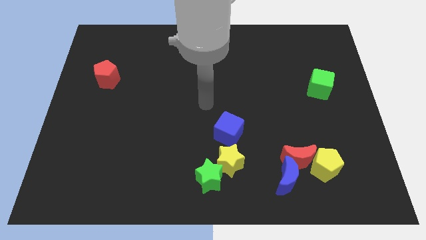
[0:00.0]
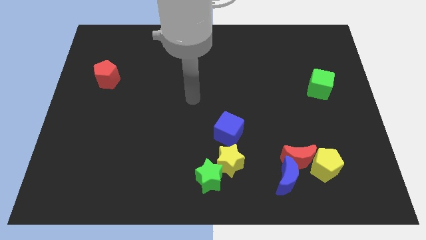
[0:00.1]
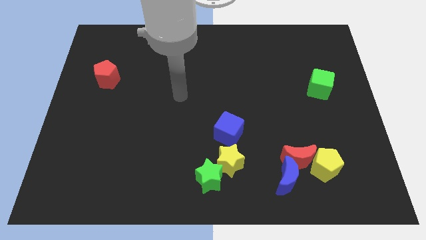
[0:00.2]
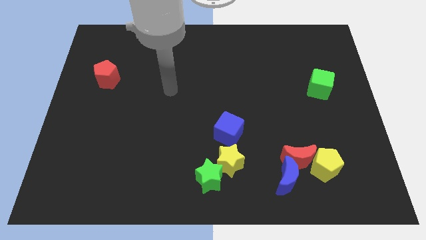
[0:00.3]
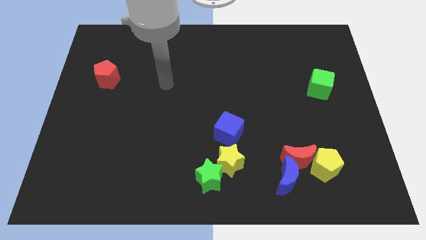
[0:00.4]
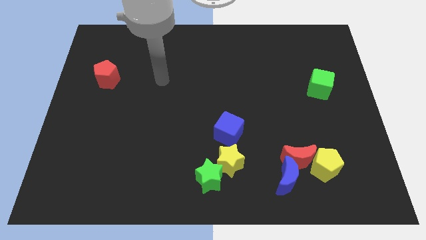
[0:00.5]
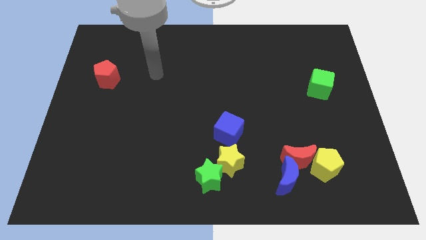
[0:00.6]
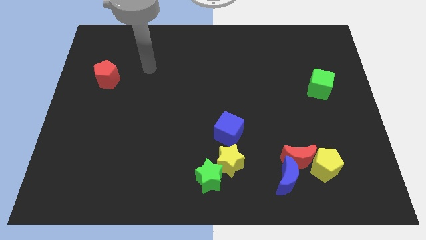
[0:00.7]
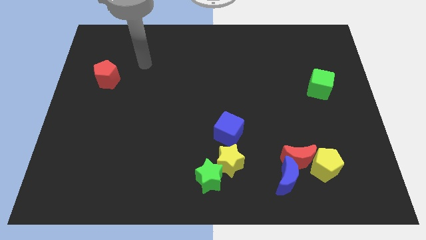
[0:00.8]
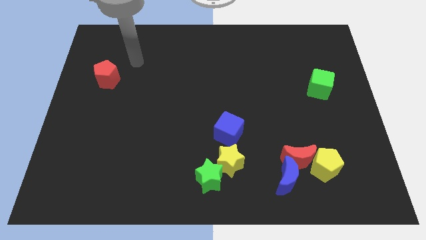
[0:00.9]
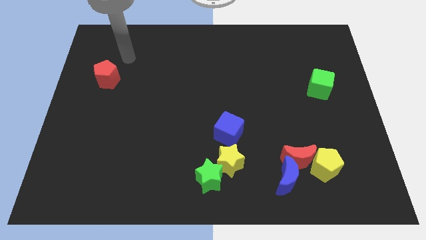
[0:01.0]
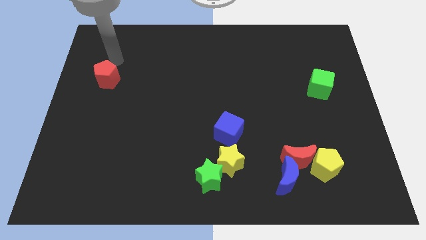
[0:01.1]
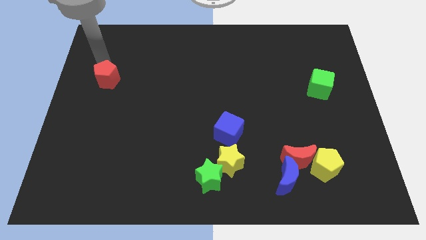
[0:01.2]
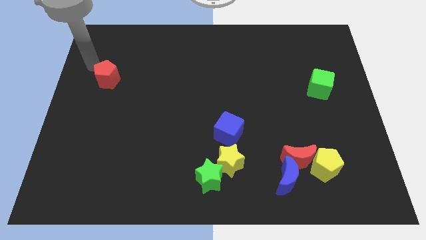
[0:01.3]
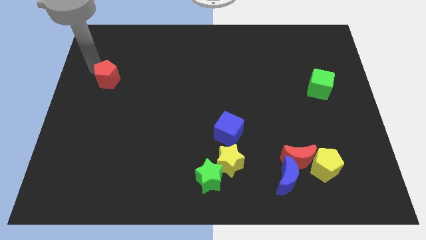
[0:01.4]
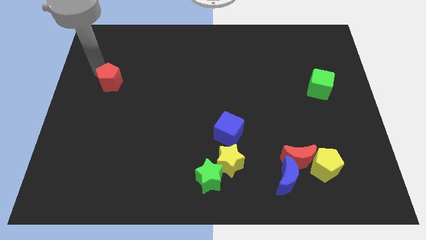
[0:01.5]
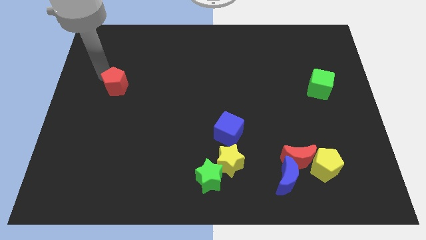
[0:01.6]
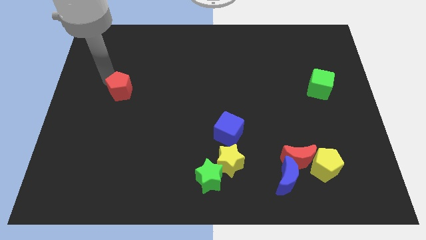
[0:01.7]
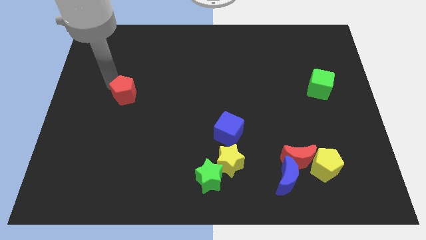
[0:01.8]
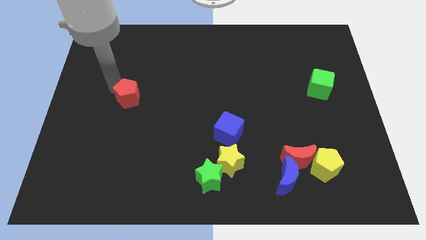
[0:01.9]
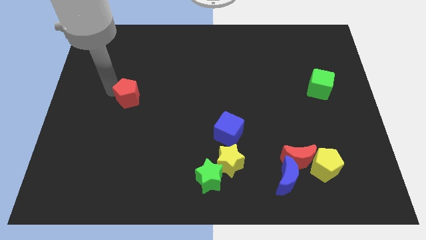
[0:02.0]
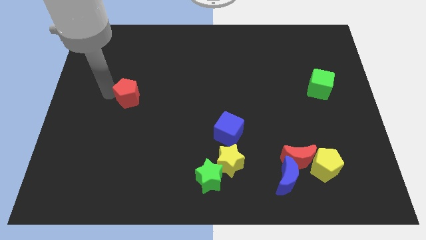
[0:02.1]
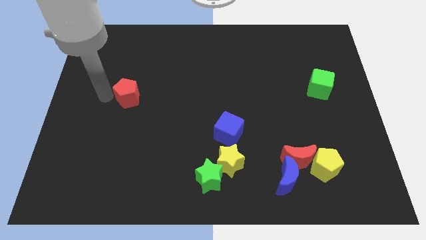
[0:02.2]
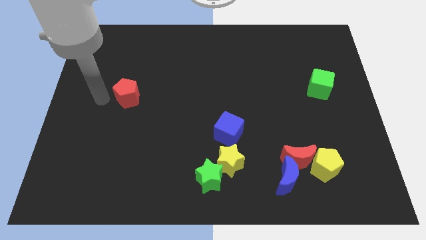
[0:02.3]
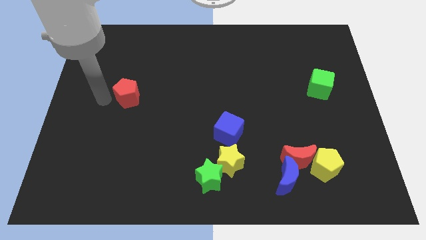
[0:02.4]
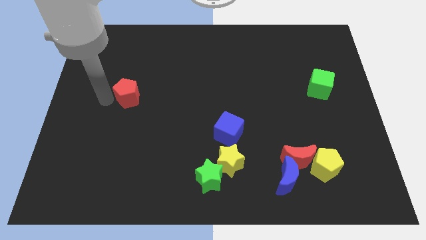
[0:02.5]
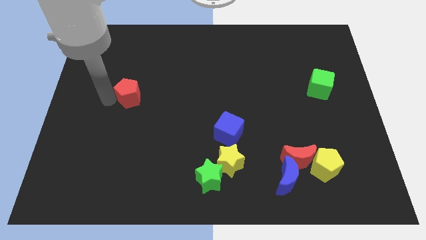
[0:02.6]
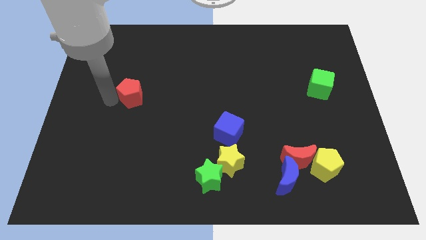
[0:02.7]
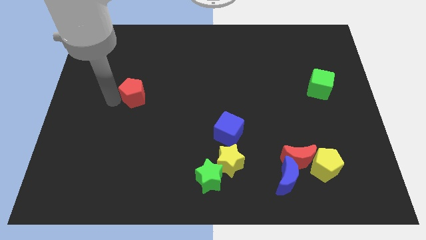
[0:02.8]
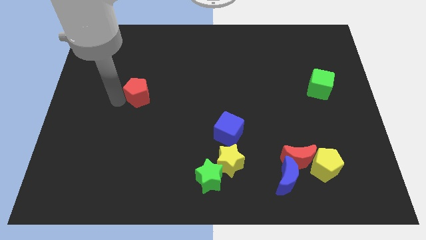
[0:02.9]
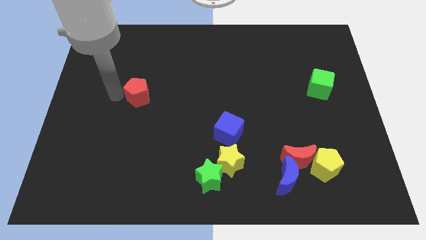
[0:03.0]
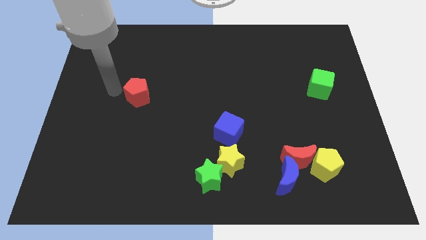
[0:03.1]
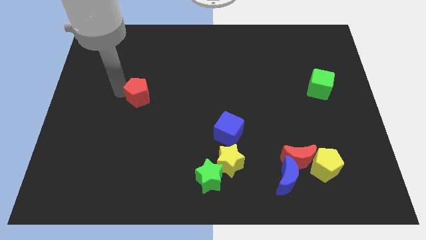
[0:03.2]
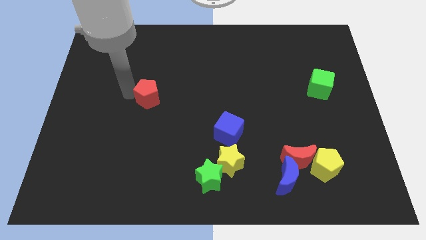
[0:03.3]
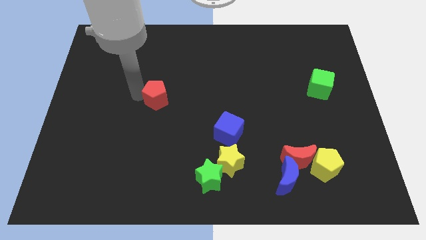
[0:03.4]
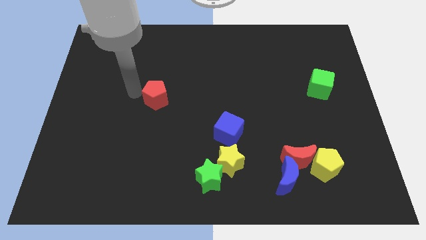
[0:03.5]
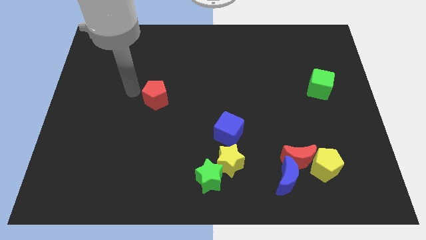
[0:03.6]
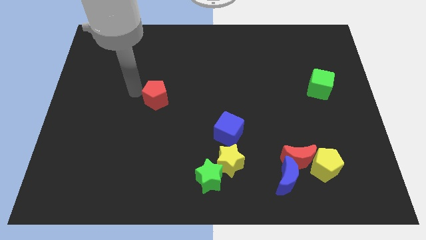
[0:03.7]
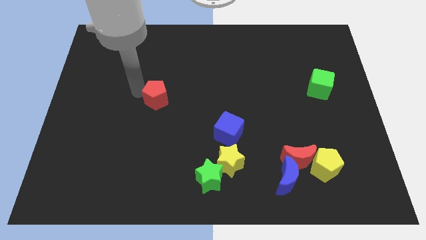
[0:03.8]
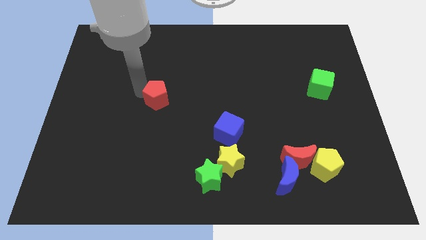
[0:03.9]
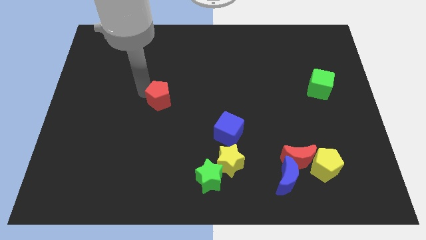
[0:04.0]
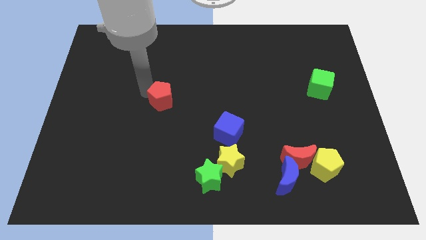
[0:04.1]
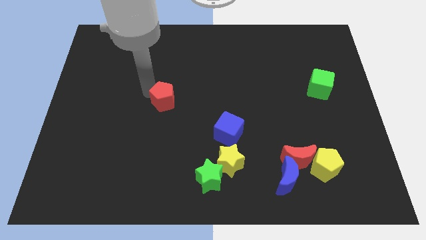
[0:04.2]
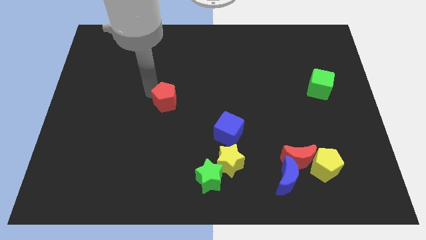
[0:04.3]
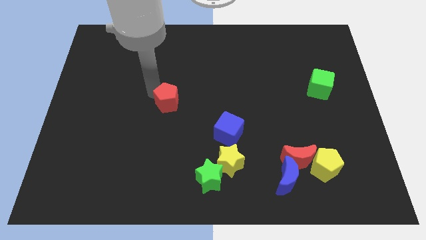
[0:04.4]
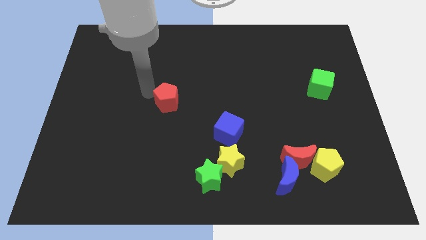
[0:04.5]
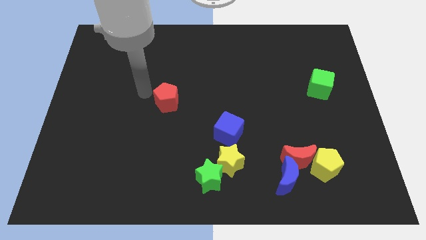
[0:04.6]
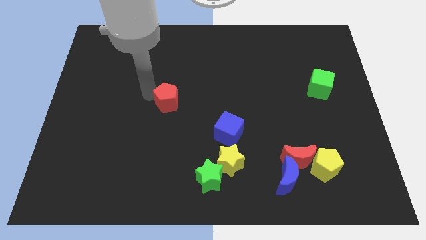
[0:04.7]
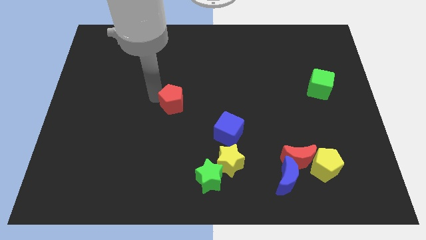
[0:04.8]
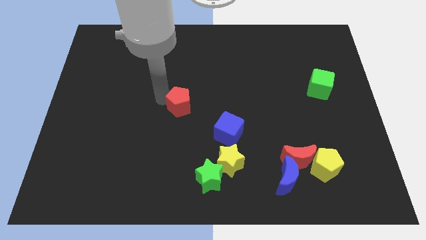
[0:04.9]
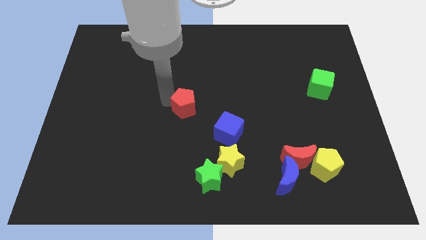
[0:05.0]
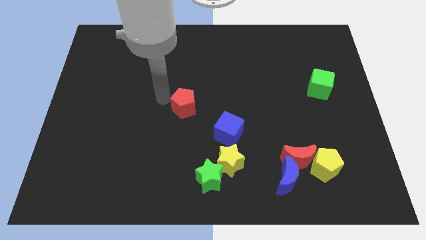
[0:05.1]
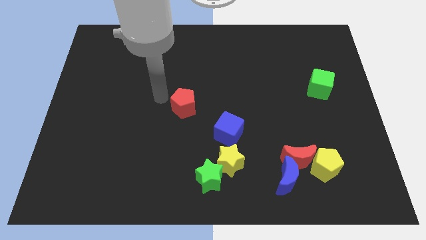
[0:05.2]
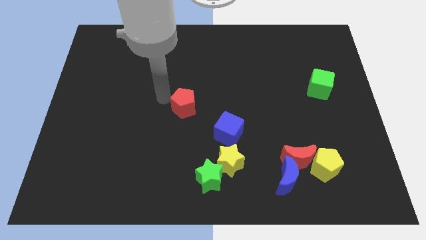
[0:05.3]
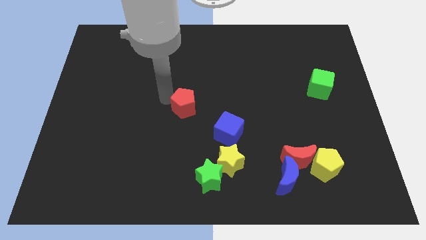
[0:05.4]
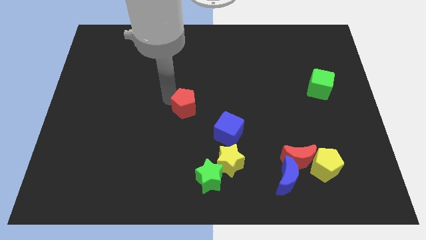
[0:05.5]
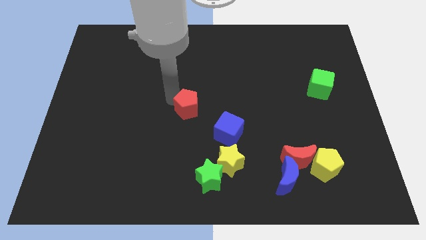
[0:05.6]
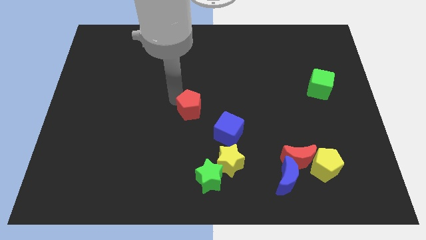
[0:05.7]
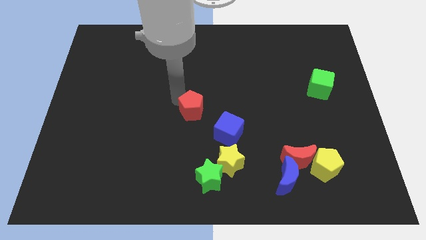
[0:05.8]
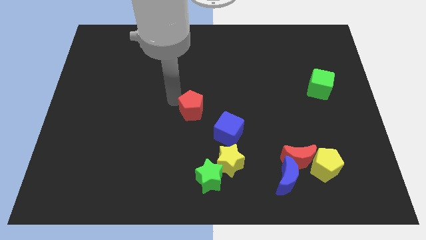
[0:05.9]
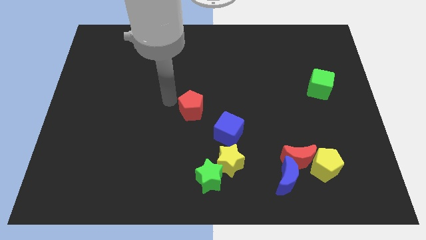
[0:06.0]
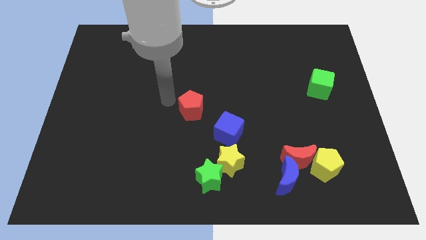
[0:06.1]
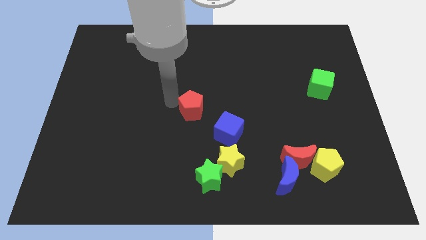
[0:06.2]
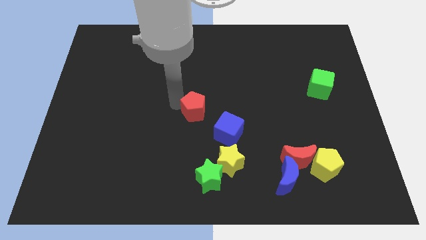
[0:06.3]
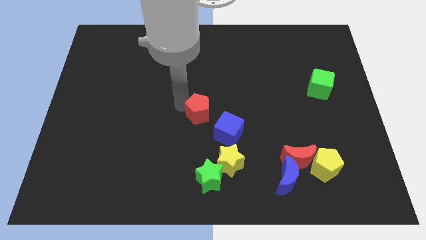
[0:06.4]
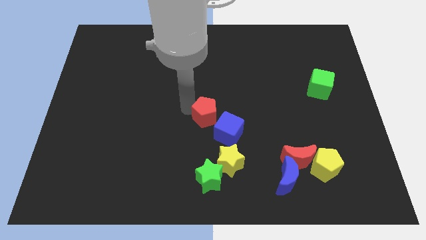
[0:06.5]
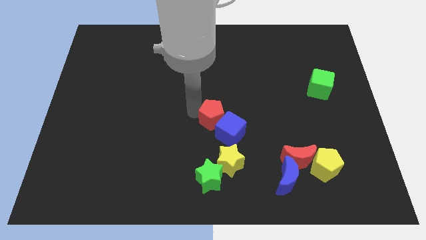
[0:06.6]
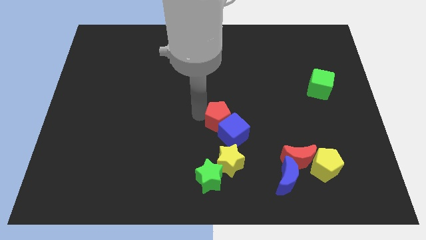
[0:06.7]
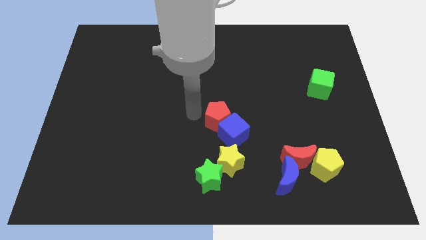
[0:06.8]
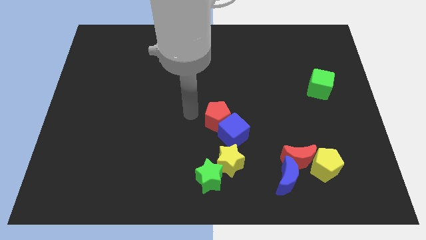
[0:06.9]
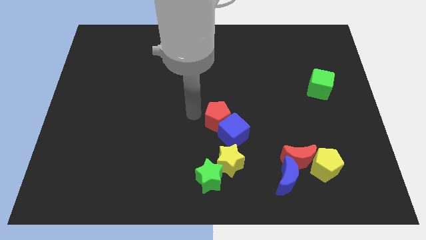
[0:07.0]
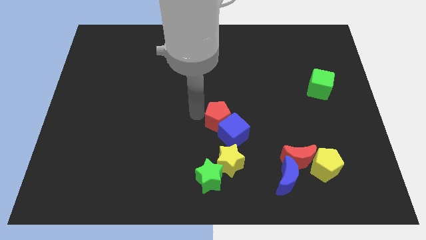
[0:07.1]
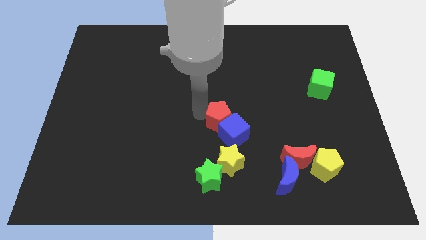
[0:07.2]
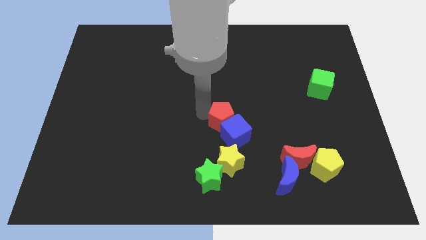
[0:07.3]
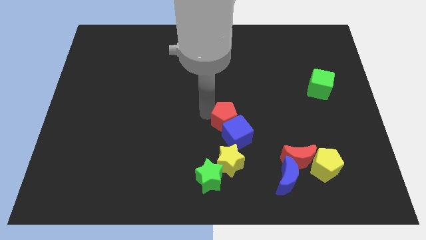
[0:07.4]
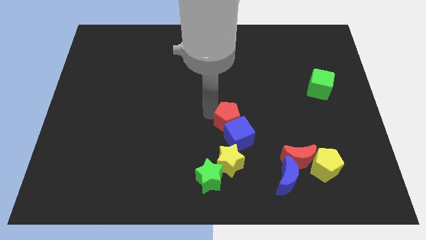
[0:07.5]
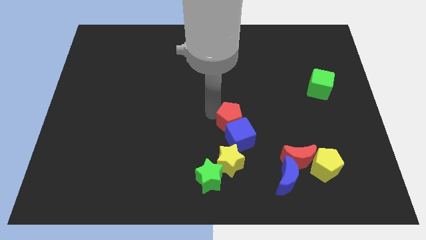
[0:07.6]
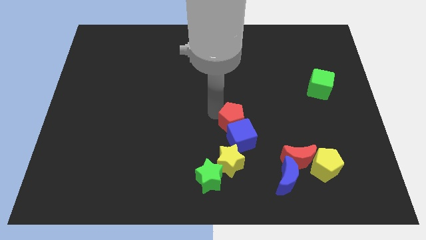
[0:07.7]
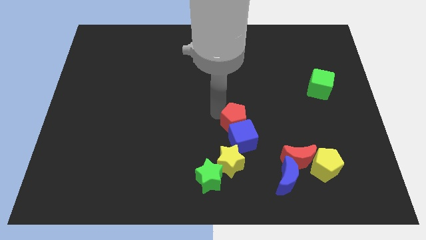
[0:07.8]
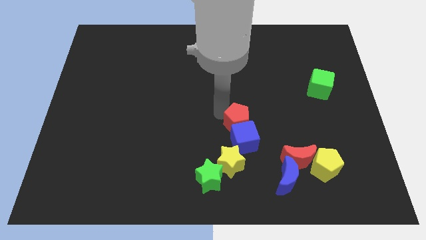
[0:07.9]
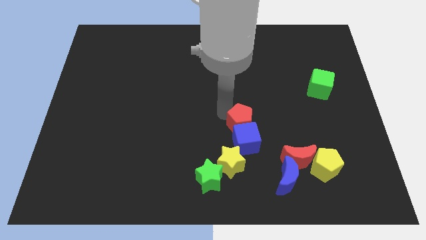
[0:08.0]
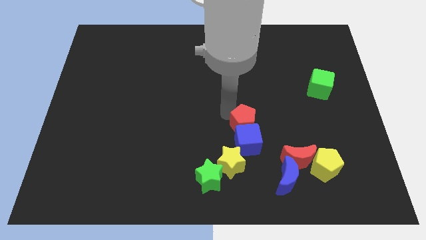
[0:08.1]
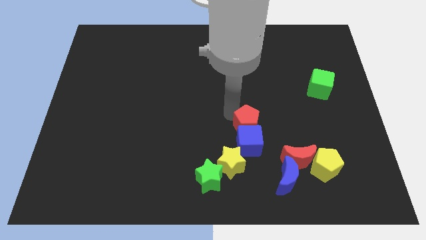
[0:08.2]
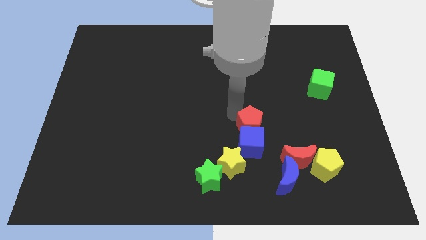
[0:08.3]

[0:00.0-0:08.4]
slide the red pentagon to the top right of the yellow star
